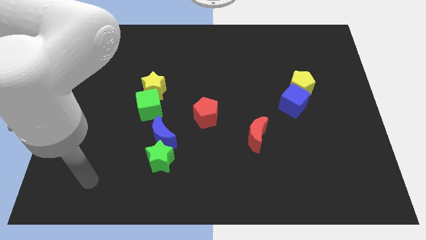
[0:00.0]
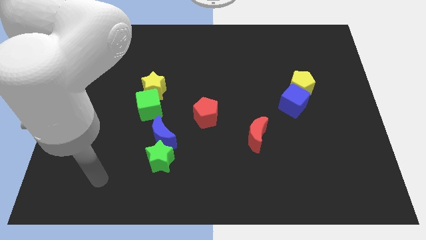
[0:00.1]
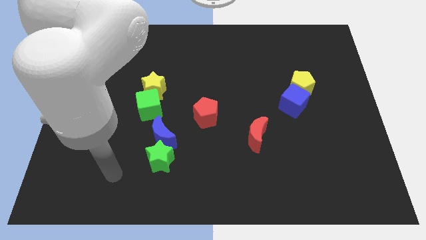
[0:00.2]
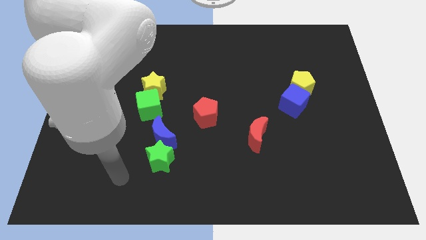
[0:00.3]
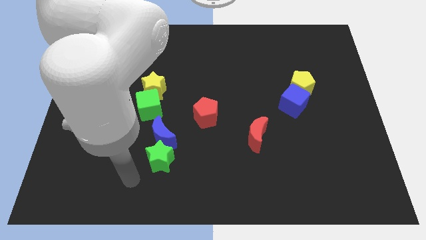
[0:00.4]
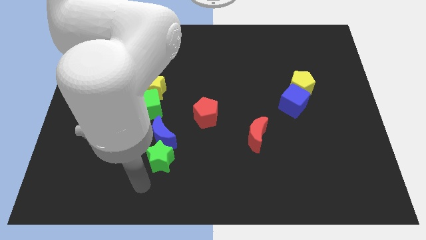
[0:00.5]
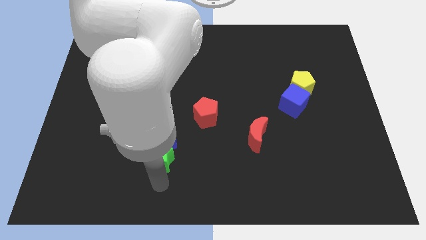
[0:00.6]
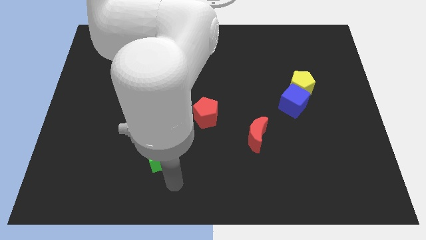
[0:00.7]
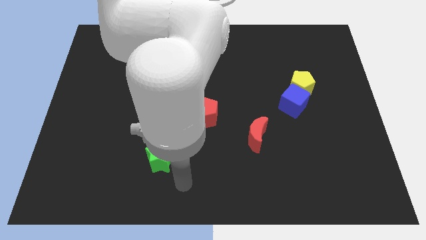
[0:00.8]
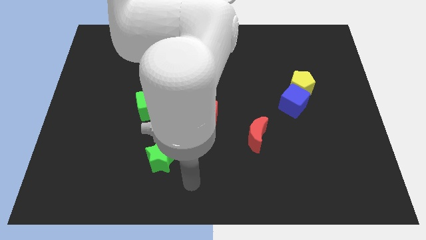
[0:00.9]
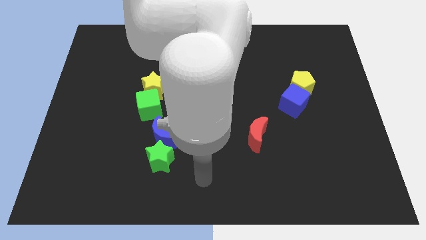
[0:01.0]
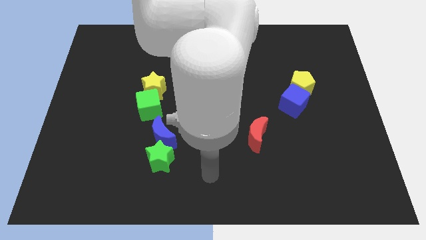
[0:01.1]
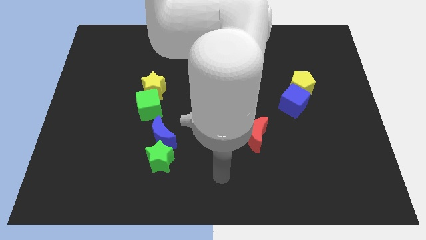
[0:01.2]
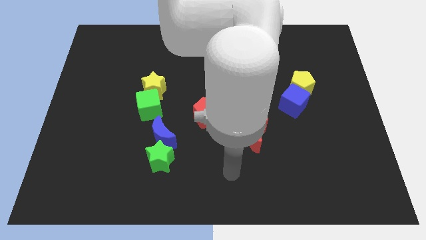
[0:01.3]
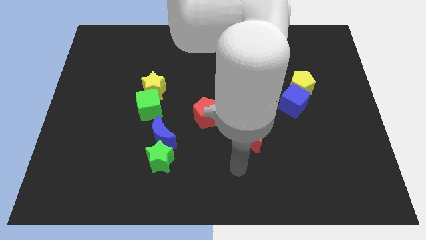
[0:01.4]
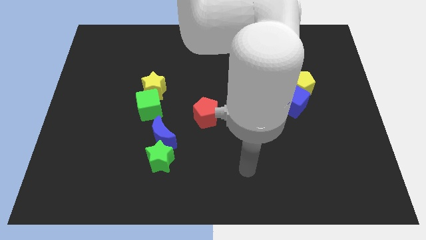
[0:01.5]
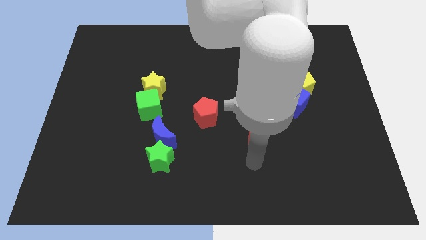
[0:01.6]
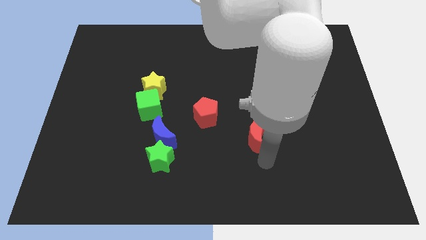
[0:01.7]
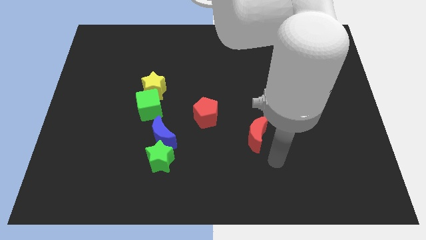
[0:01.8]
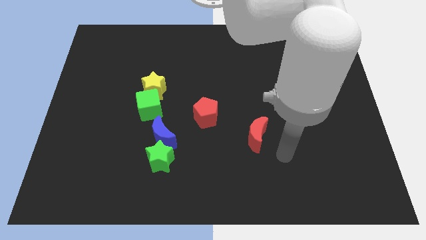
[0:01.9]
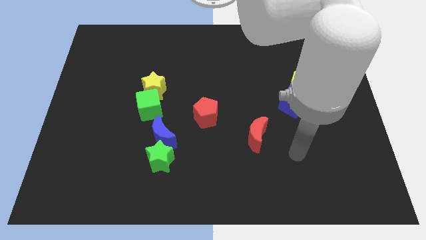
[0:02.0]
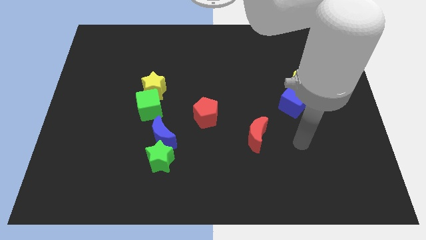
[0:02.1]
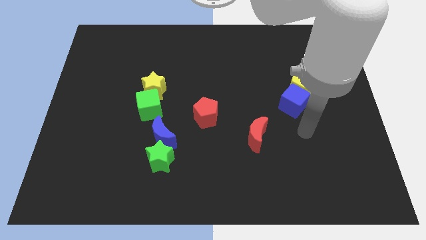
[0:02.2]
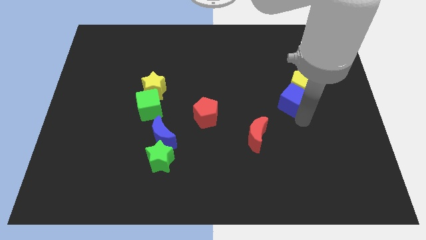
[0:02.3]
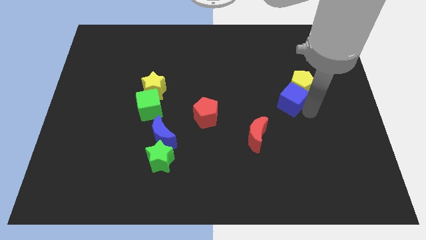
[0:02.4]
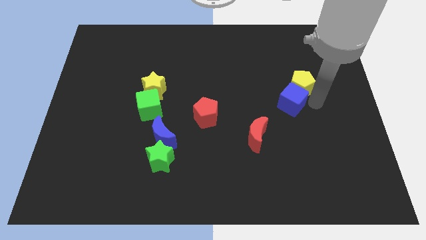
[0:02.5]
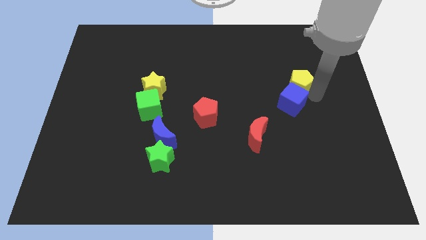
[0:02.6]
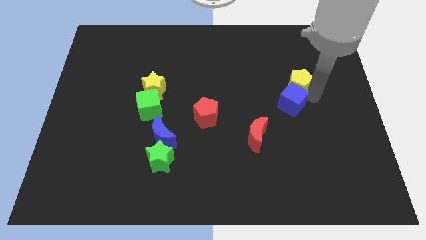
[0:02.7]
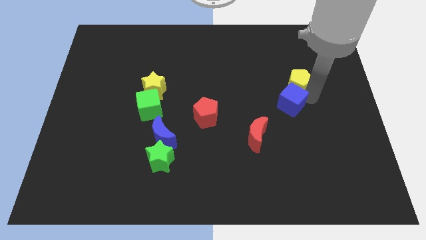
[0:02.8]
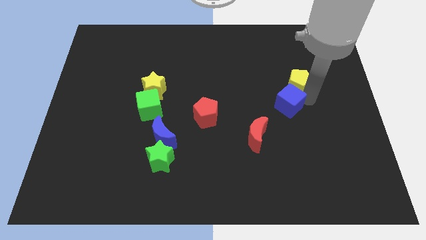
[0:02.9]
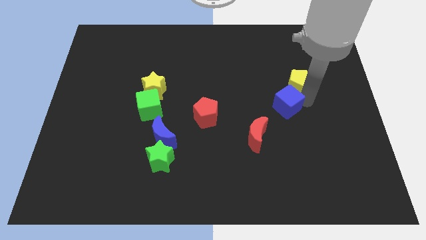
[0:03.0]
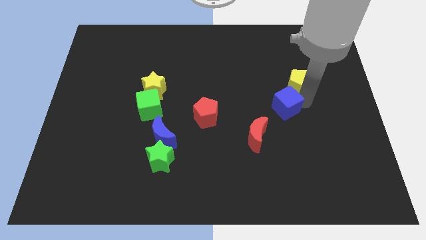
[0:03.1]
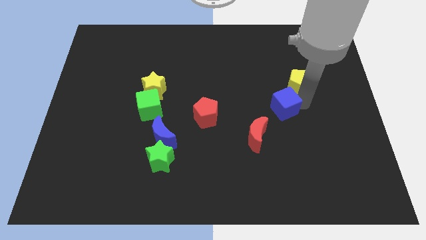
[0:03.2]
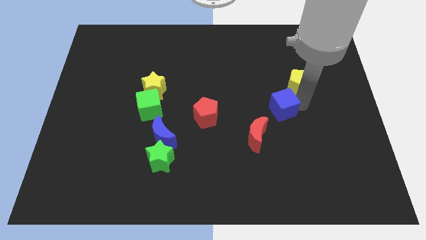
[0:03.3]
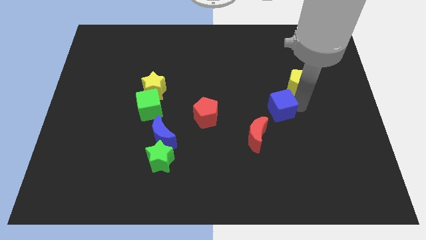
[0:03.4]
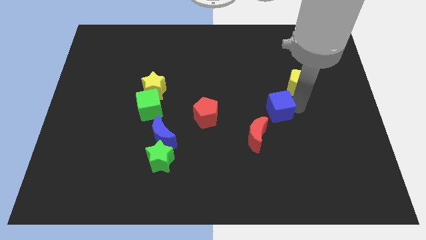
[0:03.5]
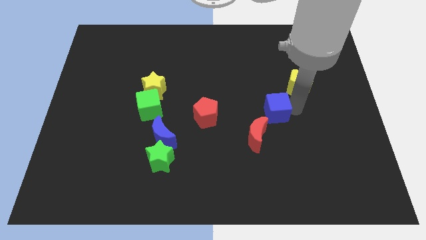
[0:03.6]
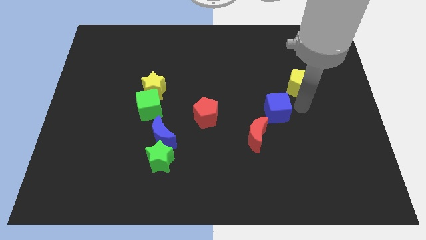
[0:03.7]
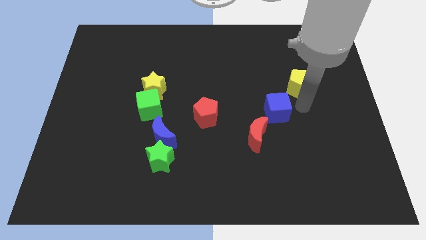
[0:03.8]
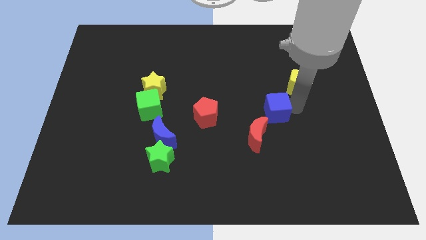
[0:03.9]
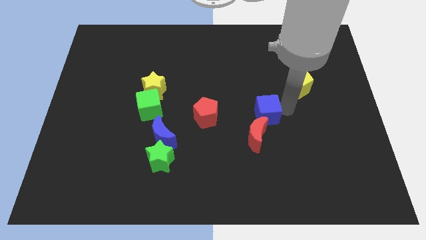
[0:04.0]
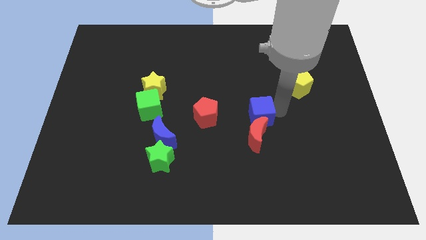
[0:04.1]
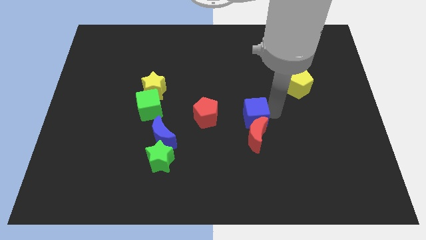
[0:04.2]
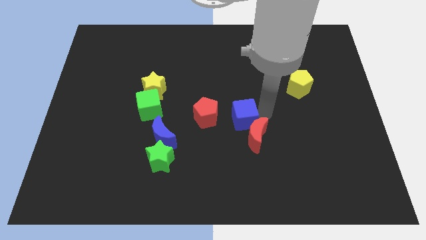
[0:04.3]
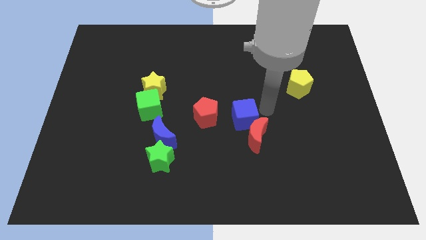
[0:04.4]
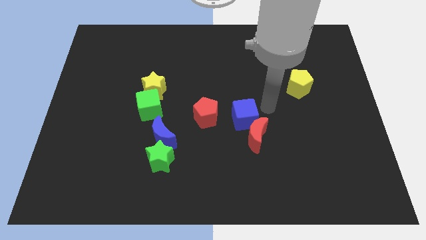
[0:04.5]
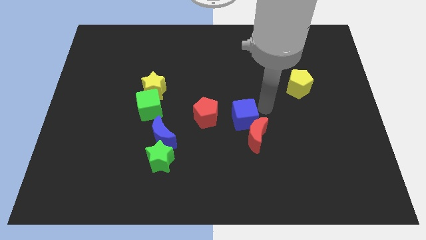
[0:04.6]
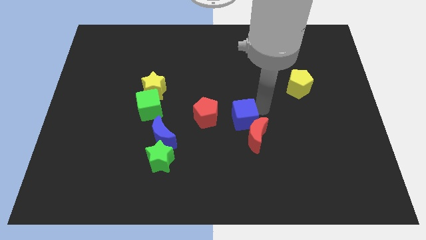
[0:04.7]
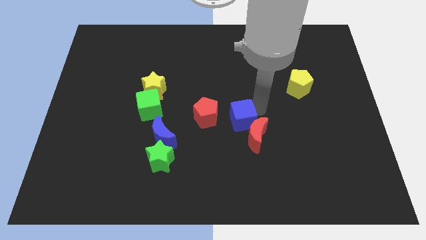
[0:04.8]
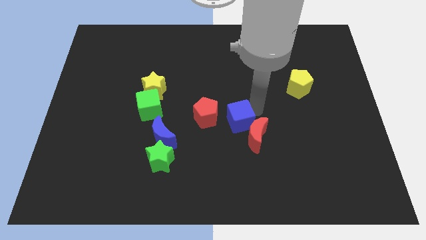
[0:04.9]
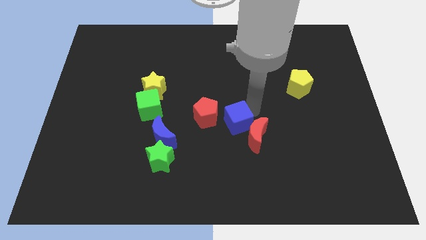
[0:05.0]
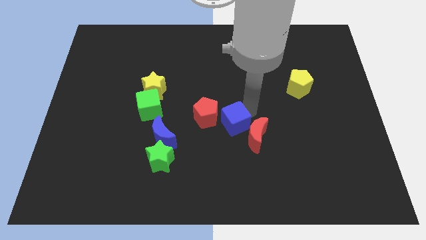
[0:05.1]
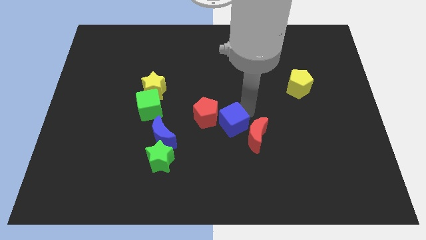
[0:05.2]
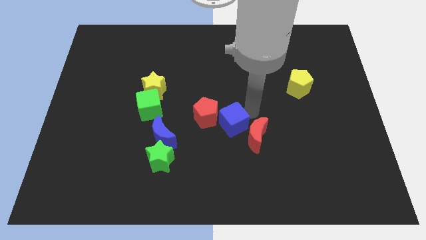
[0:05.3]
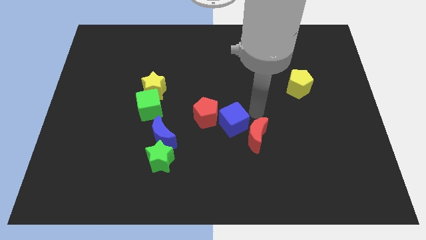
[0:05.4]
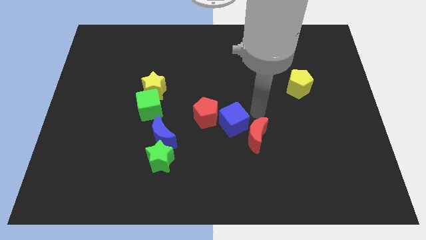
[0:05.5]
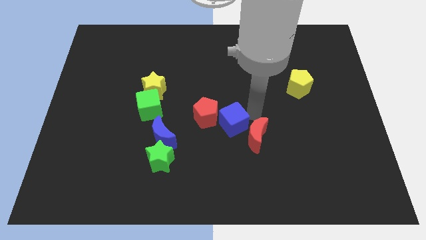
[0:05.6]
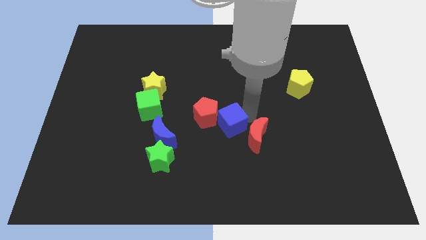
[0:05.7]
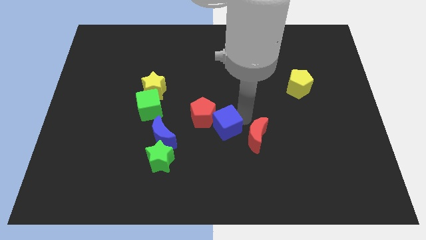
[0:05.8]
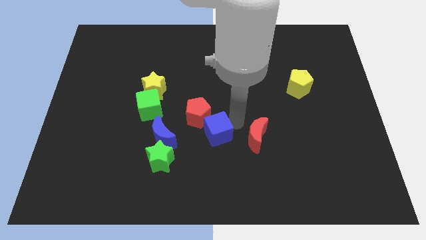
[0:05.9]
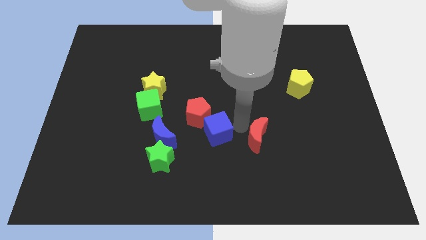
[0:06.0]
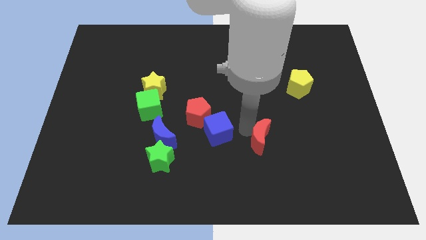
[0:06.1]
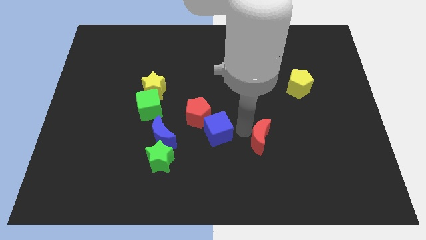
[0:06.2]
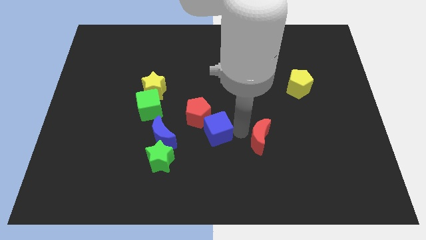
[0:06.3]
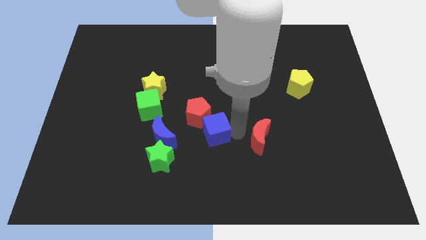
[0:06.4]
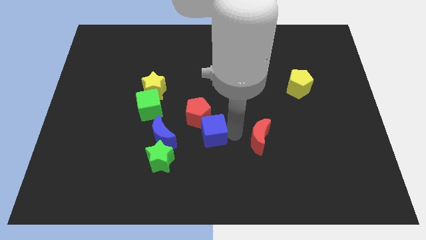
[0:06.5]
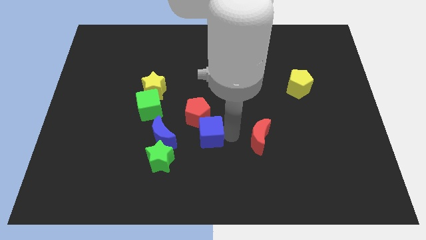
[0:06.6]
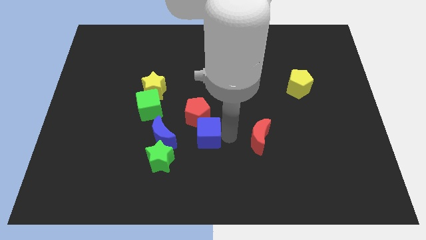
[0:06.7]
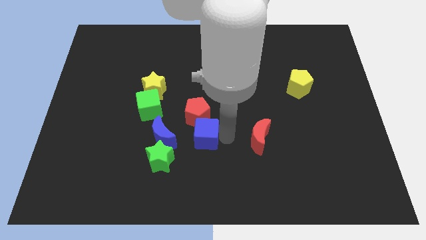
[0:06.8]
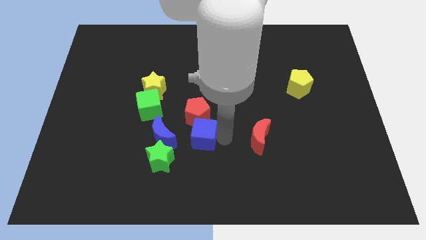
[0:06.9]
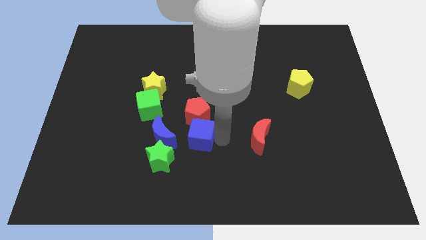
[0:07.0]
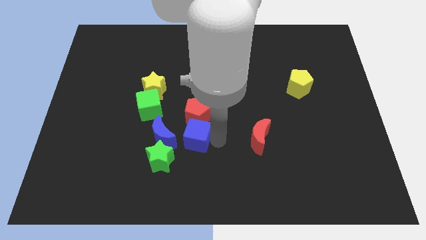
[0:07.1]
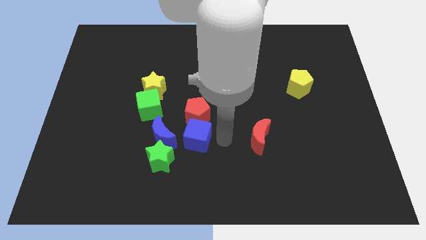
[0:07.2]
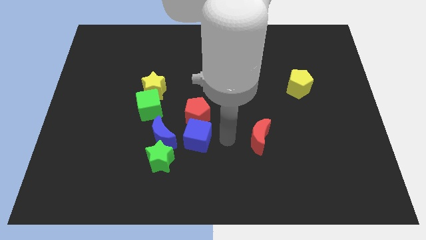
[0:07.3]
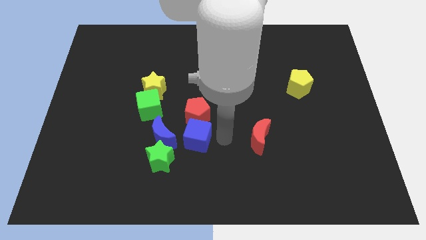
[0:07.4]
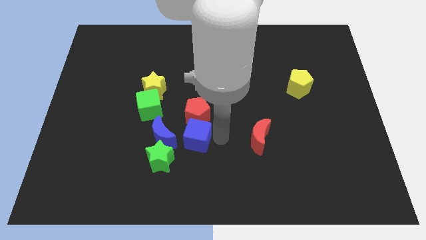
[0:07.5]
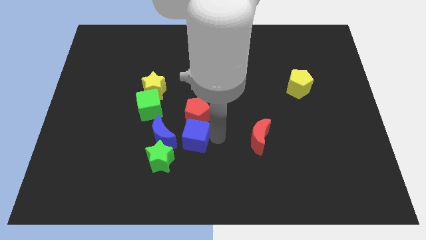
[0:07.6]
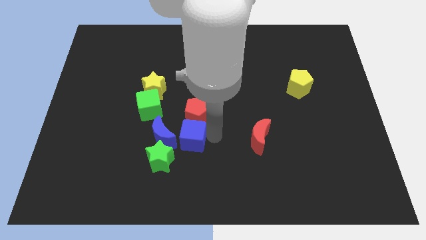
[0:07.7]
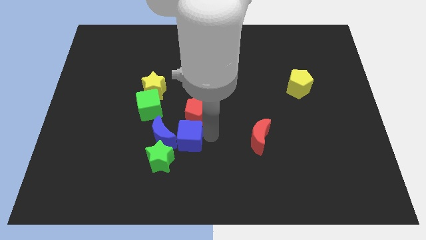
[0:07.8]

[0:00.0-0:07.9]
push the blue cube towards the blue moon
